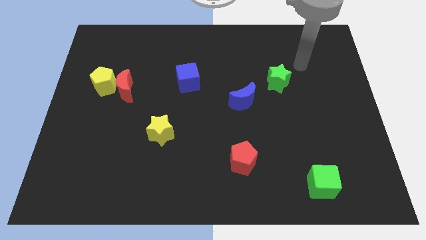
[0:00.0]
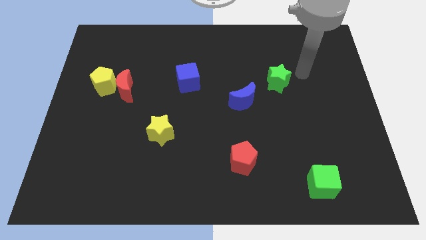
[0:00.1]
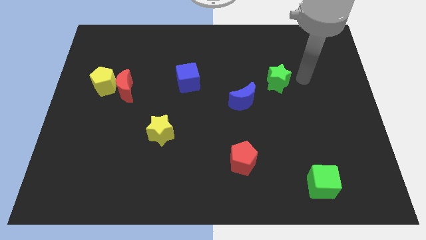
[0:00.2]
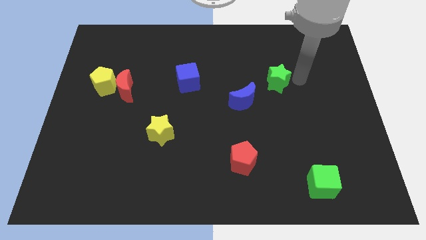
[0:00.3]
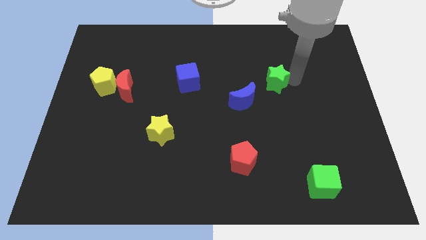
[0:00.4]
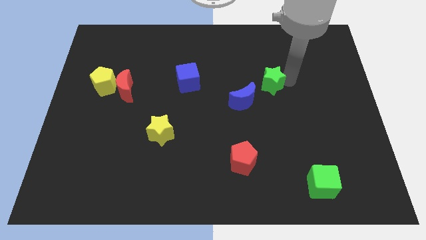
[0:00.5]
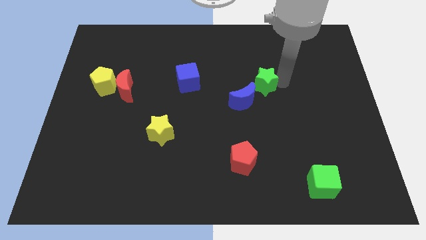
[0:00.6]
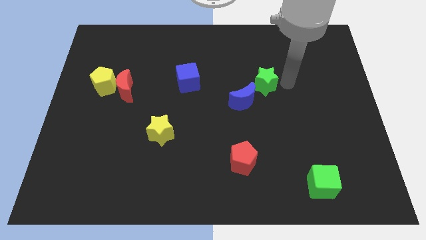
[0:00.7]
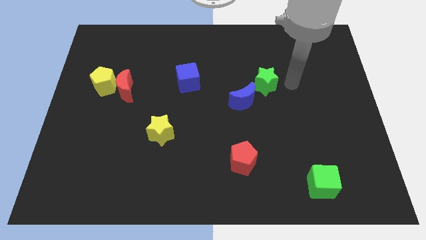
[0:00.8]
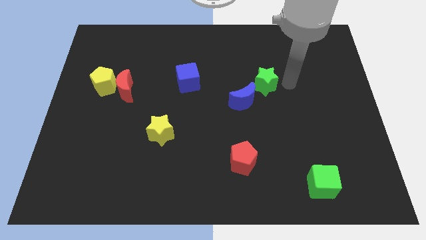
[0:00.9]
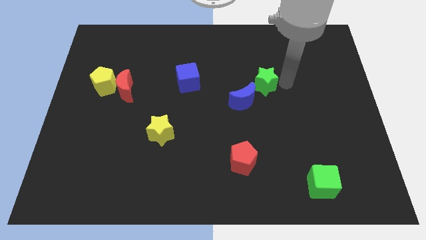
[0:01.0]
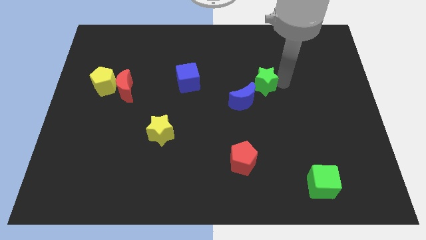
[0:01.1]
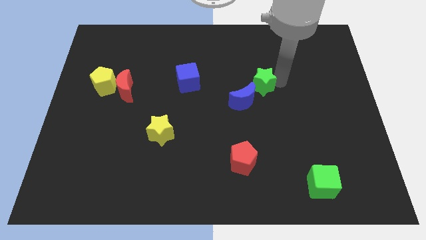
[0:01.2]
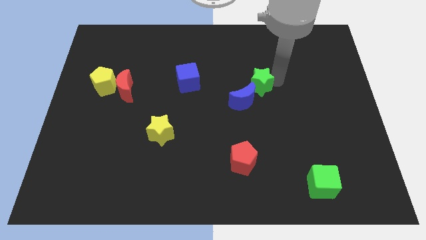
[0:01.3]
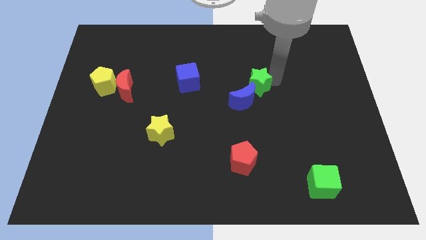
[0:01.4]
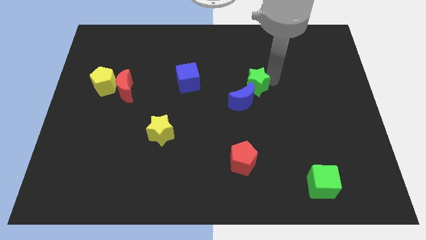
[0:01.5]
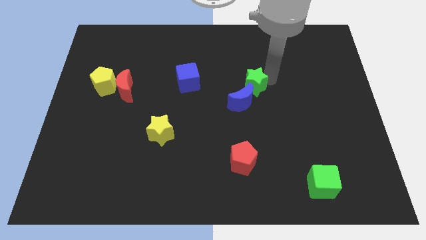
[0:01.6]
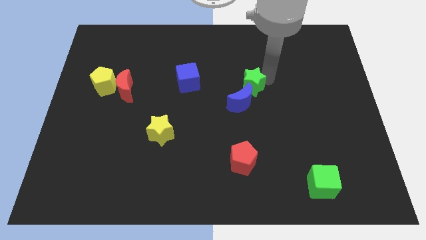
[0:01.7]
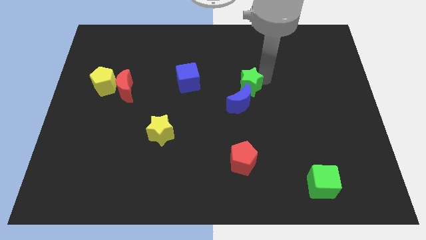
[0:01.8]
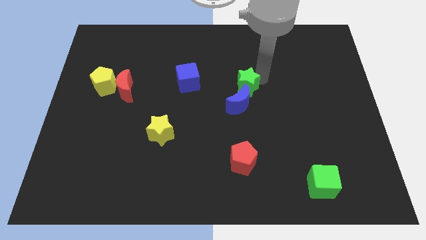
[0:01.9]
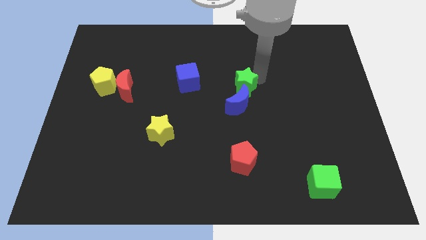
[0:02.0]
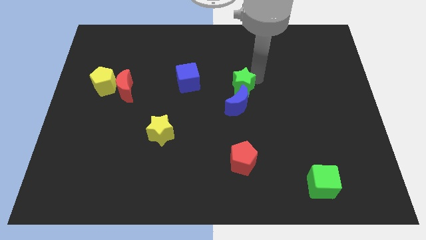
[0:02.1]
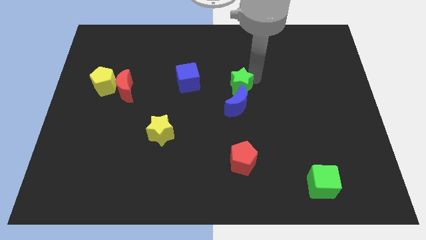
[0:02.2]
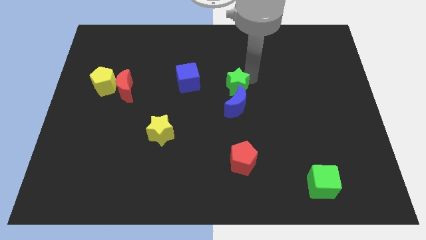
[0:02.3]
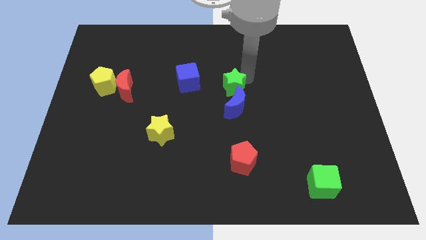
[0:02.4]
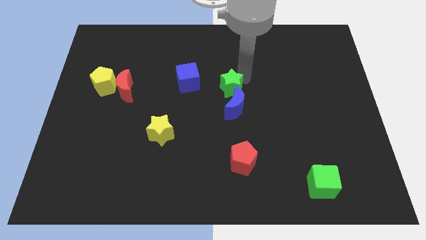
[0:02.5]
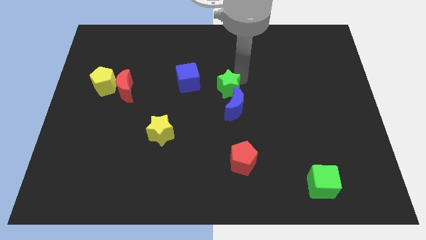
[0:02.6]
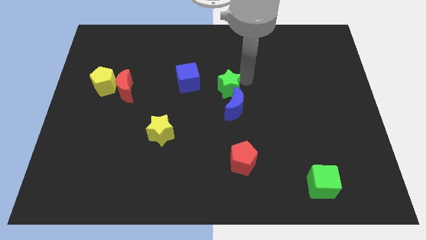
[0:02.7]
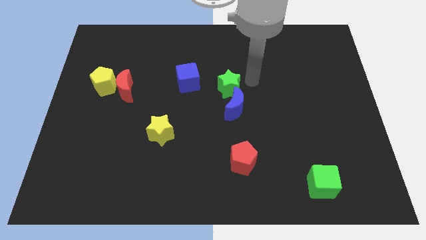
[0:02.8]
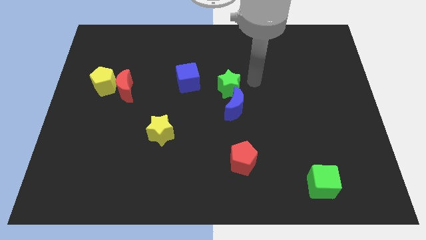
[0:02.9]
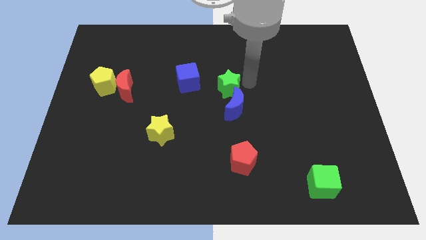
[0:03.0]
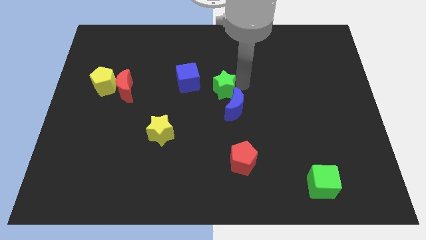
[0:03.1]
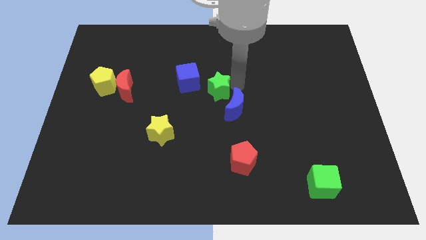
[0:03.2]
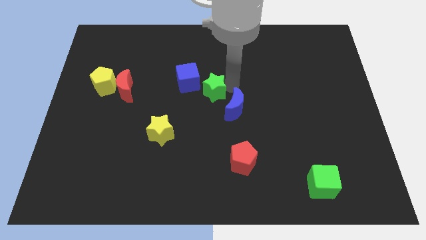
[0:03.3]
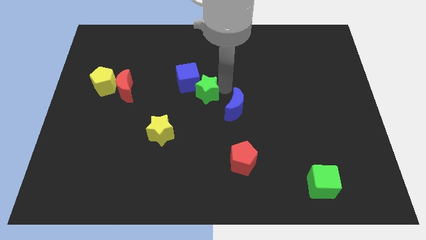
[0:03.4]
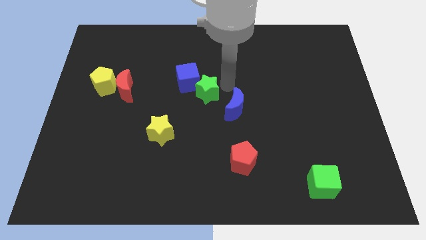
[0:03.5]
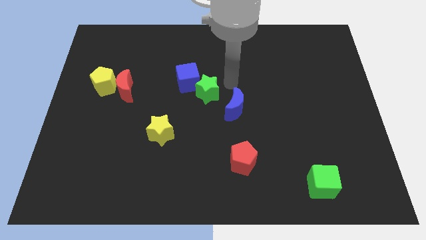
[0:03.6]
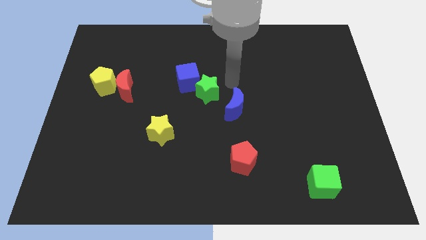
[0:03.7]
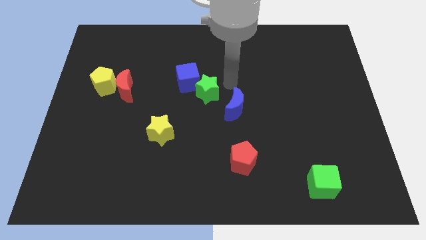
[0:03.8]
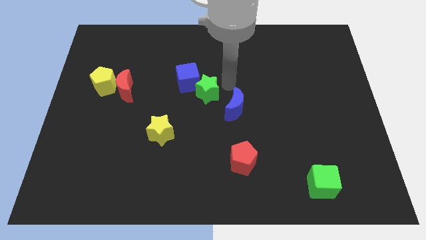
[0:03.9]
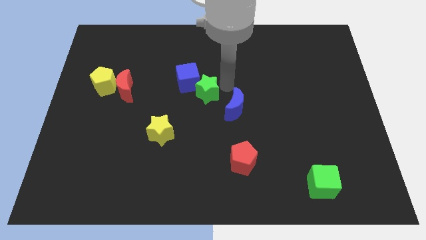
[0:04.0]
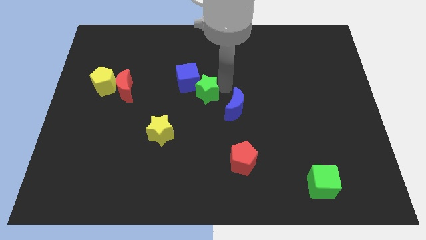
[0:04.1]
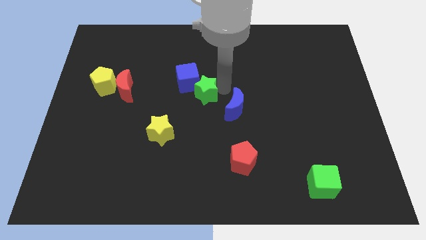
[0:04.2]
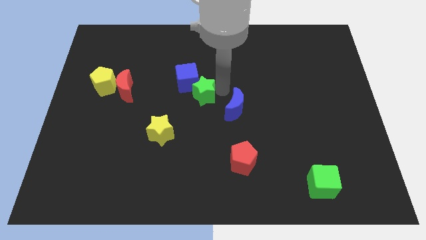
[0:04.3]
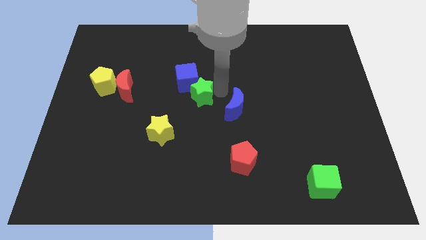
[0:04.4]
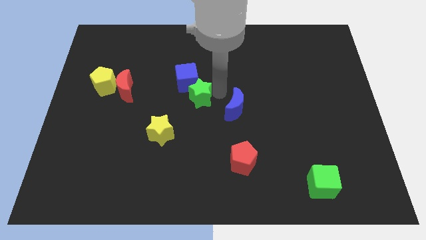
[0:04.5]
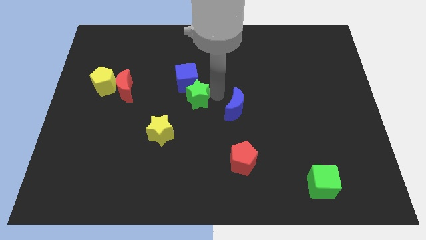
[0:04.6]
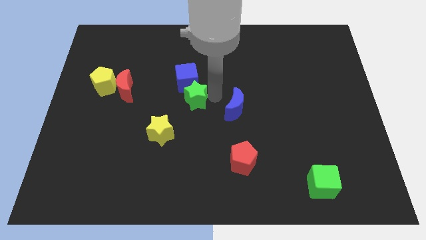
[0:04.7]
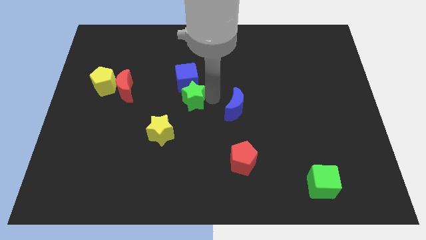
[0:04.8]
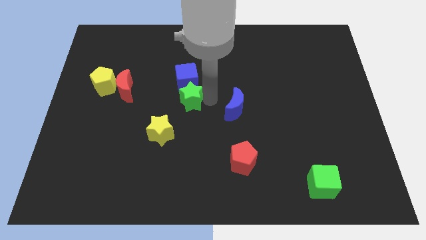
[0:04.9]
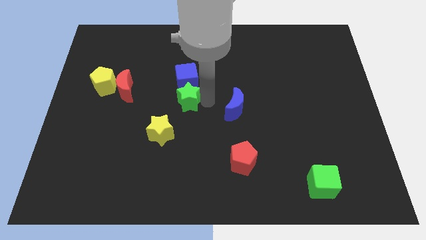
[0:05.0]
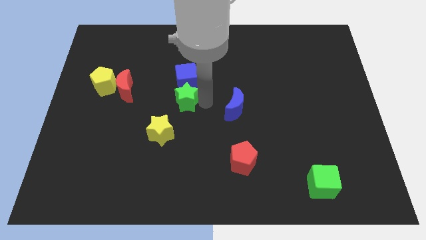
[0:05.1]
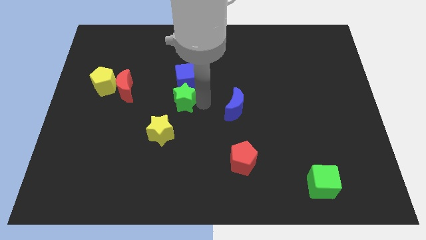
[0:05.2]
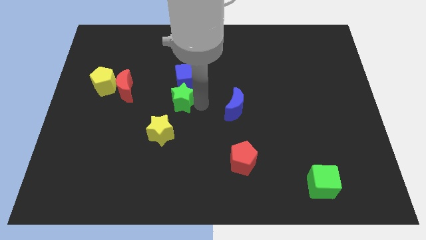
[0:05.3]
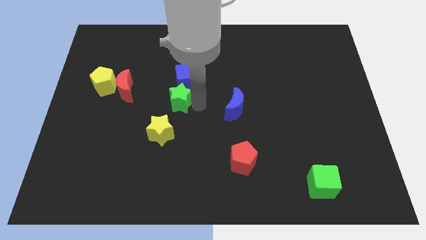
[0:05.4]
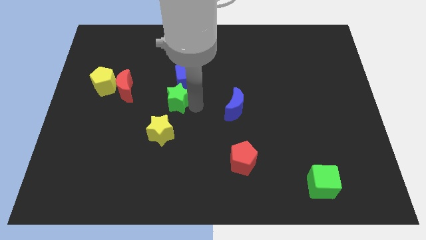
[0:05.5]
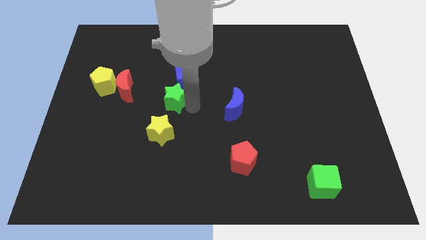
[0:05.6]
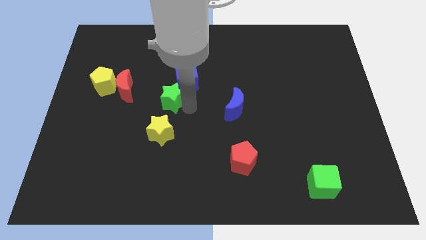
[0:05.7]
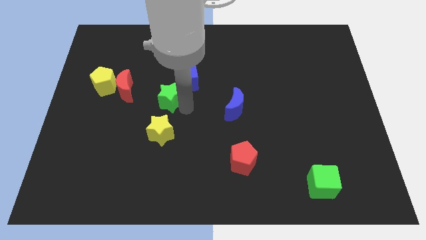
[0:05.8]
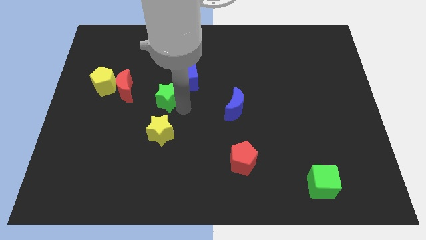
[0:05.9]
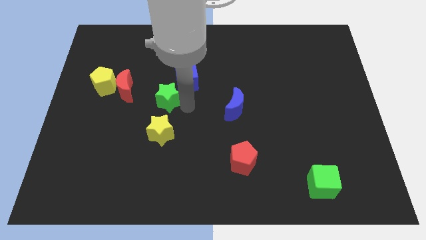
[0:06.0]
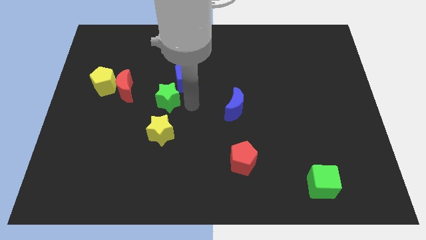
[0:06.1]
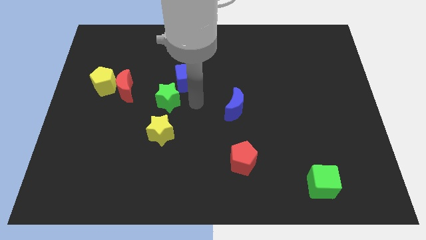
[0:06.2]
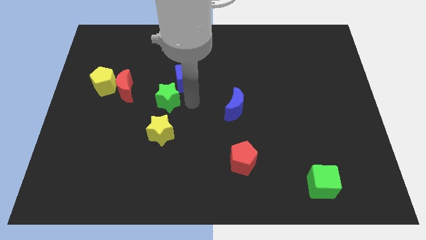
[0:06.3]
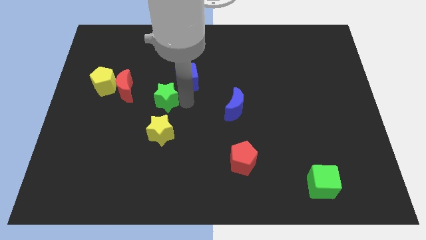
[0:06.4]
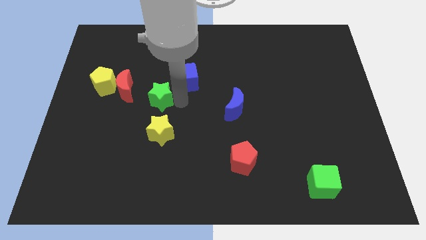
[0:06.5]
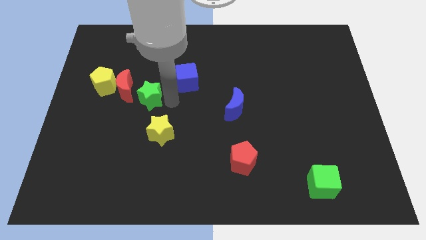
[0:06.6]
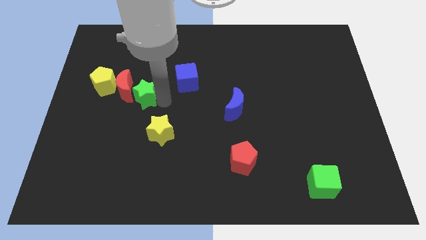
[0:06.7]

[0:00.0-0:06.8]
push the green star to the red moon

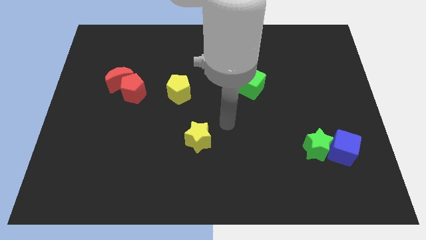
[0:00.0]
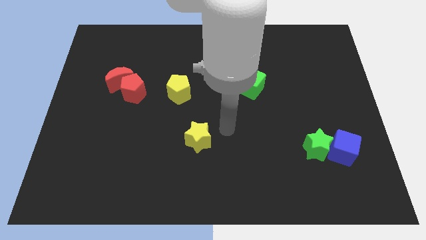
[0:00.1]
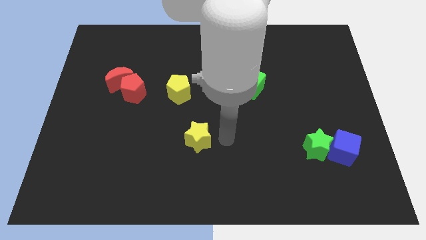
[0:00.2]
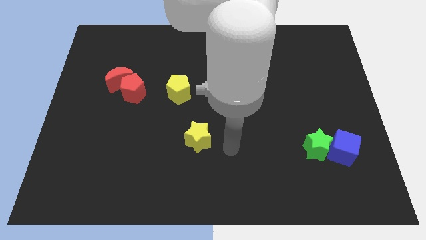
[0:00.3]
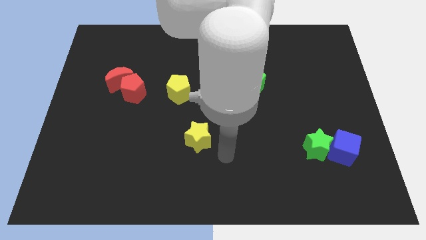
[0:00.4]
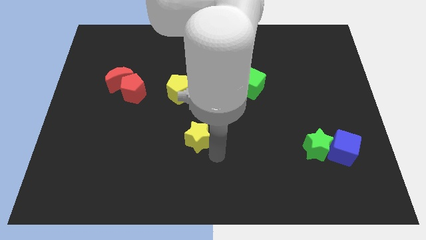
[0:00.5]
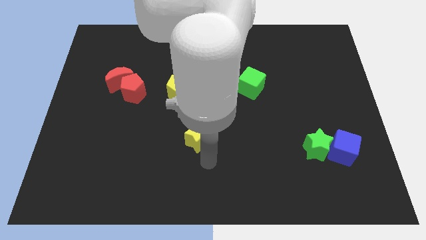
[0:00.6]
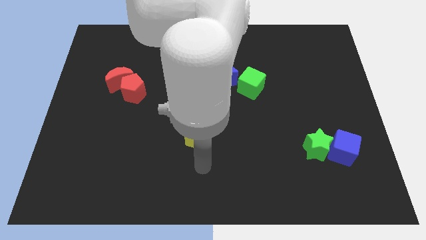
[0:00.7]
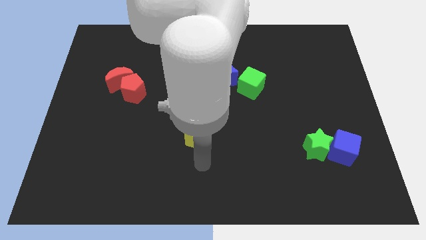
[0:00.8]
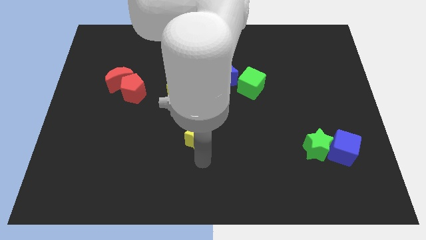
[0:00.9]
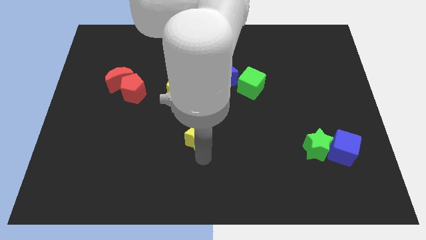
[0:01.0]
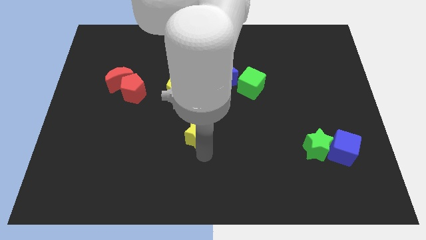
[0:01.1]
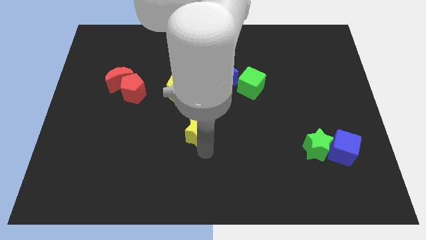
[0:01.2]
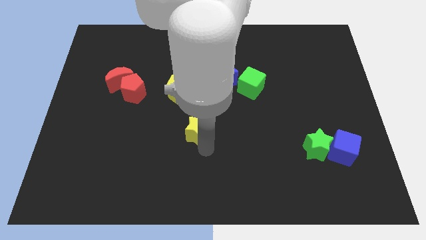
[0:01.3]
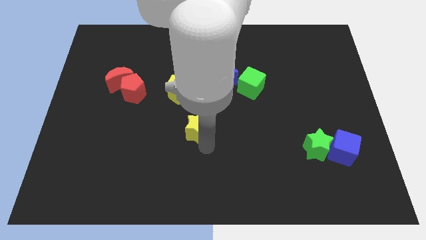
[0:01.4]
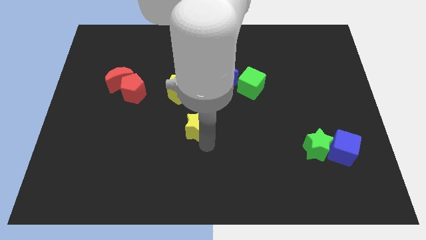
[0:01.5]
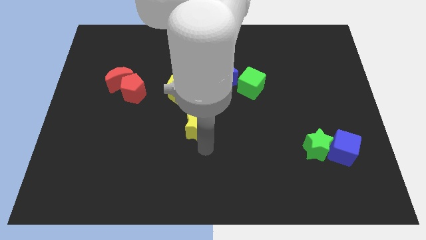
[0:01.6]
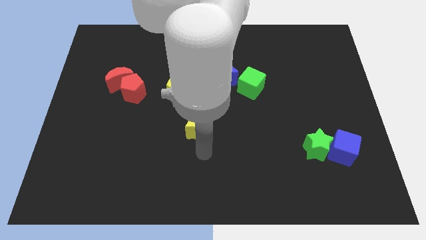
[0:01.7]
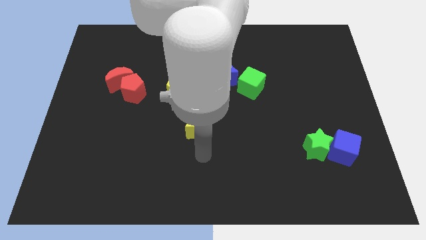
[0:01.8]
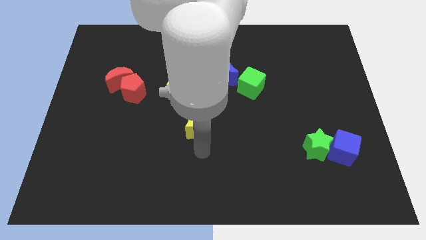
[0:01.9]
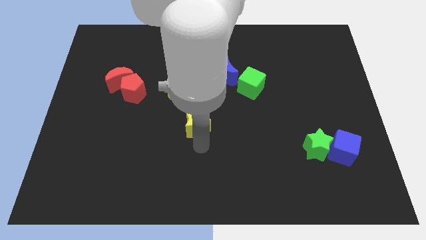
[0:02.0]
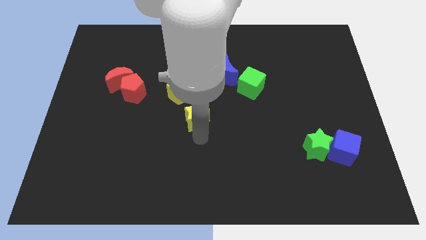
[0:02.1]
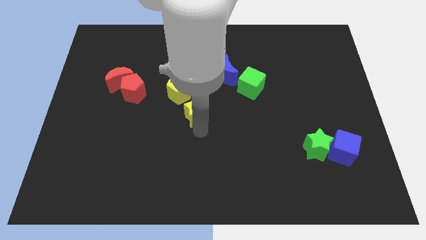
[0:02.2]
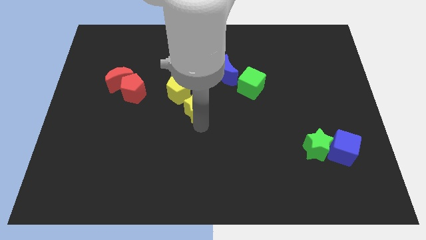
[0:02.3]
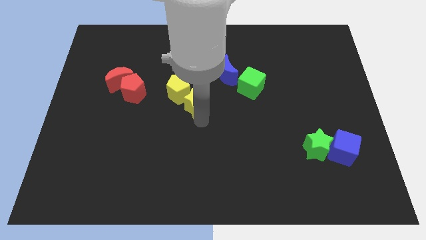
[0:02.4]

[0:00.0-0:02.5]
put the yellow star close to the yellow pentagon
